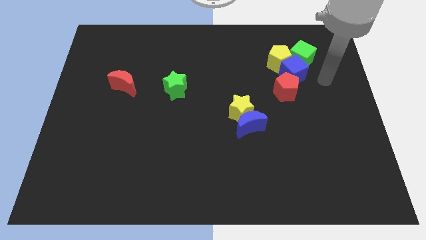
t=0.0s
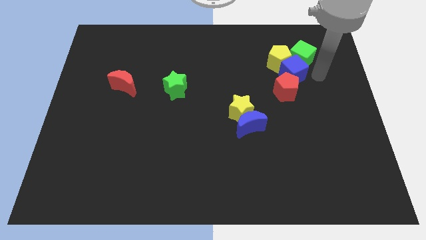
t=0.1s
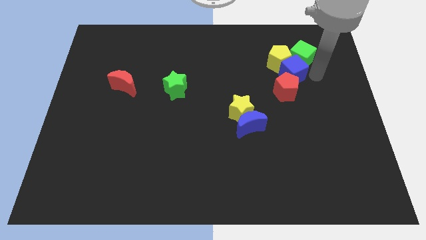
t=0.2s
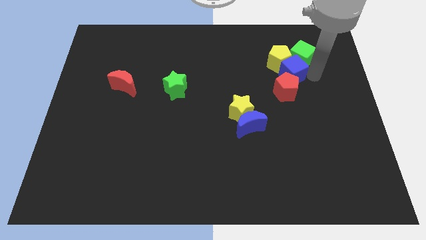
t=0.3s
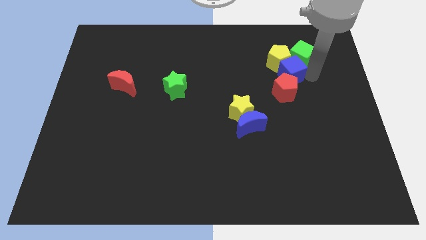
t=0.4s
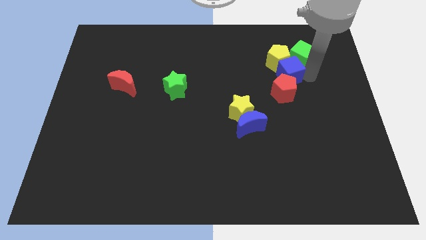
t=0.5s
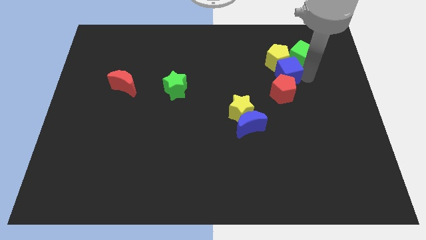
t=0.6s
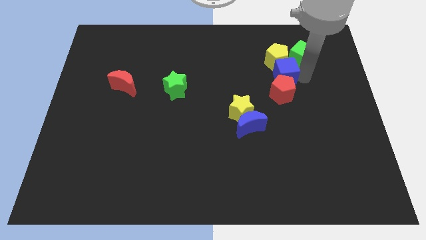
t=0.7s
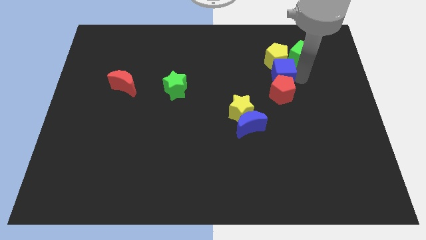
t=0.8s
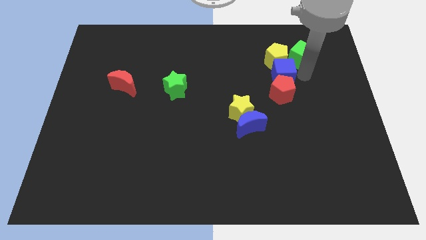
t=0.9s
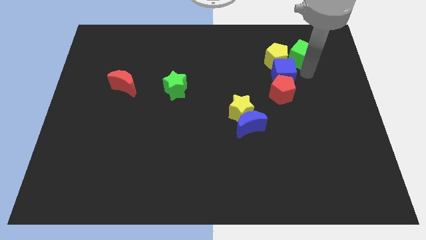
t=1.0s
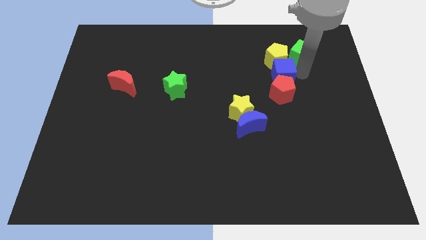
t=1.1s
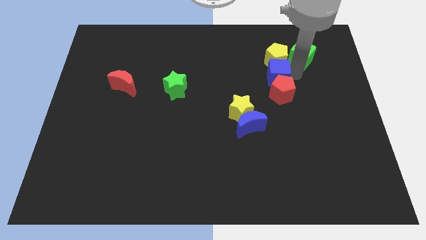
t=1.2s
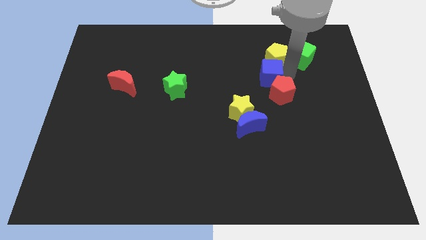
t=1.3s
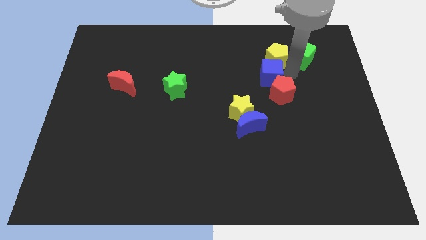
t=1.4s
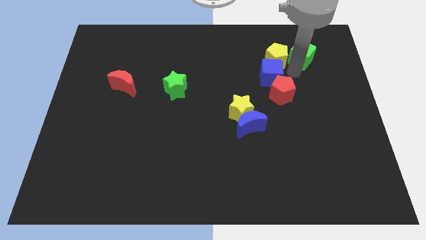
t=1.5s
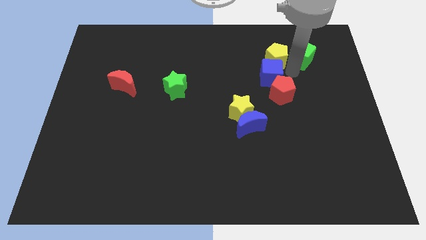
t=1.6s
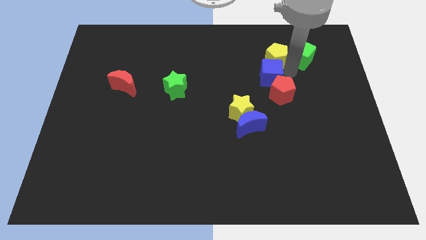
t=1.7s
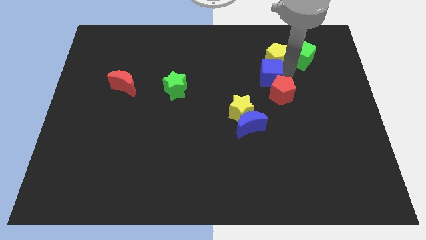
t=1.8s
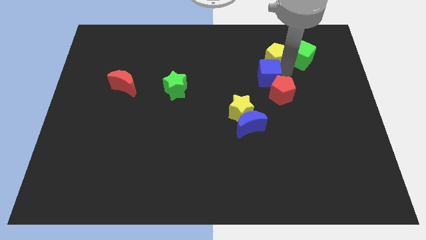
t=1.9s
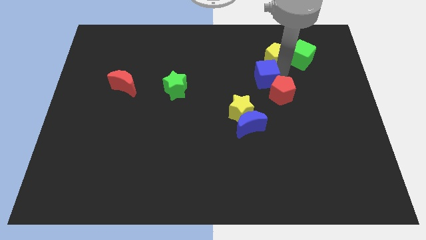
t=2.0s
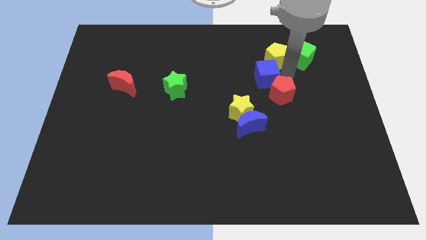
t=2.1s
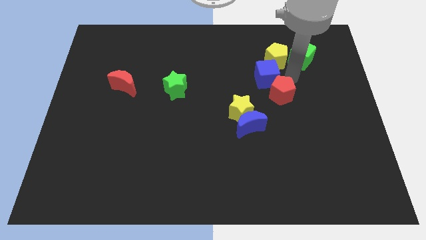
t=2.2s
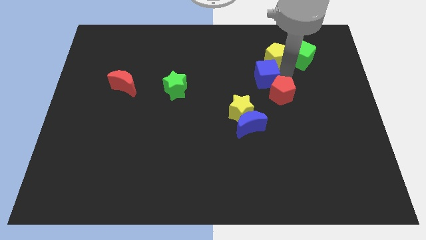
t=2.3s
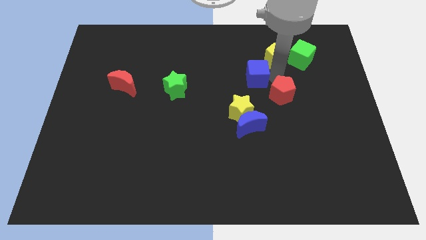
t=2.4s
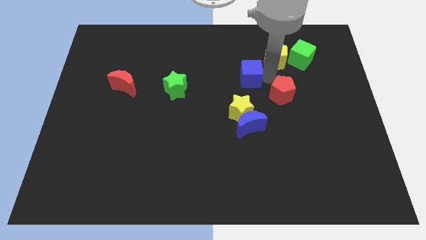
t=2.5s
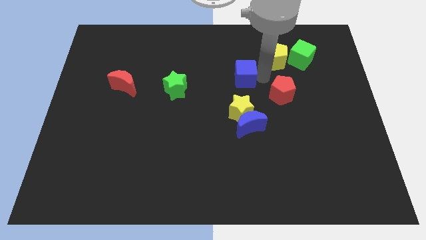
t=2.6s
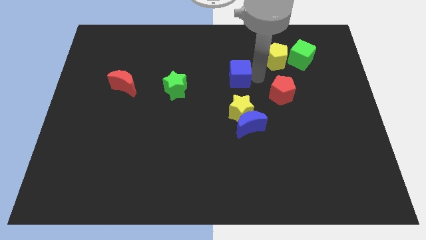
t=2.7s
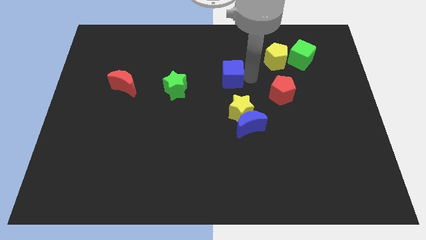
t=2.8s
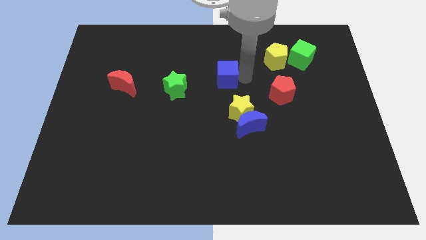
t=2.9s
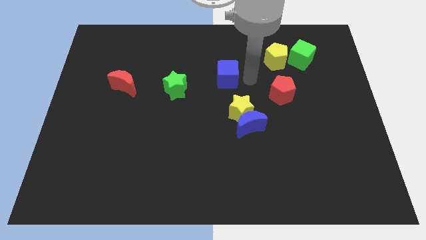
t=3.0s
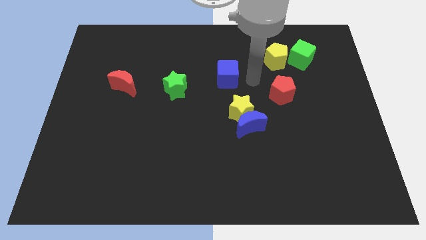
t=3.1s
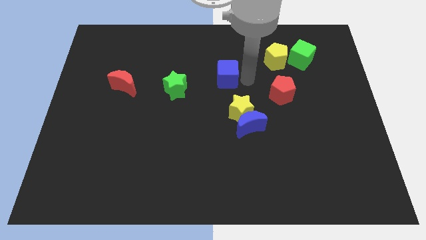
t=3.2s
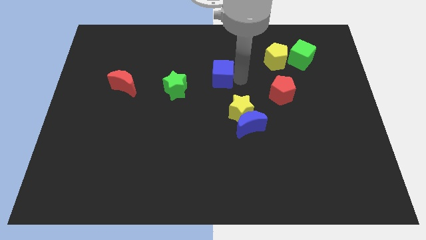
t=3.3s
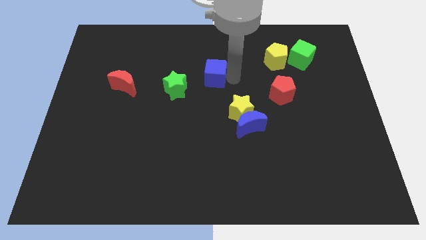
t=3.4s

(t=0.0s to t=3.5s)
move the blue cube left

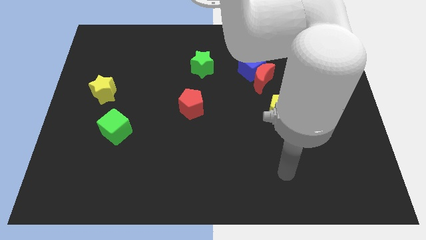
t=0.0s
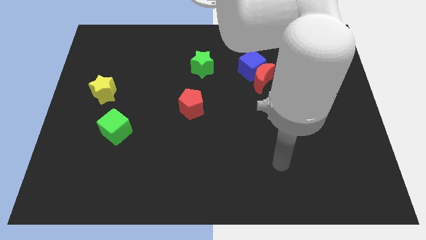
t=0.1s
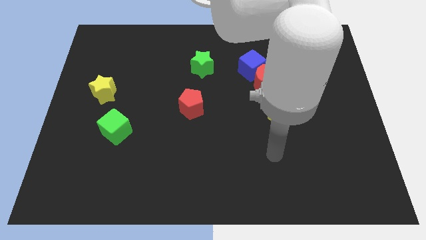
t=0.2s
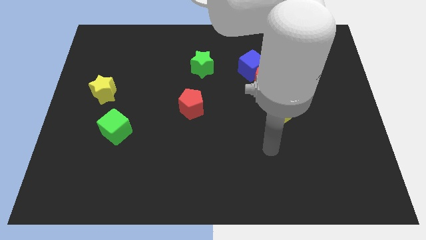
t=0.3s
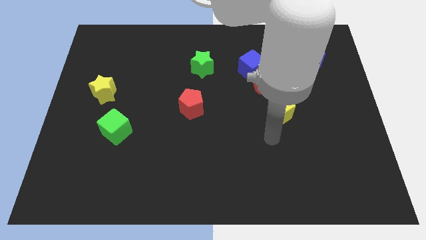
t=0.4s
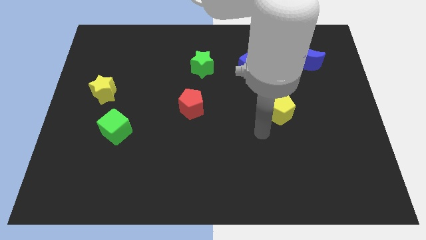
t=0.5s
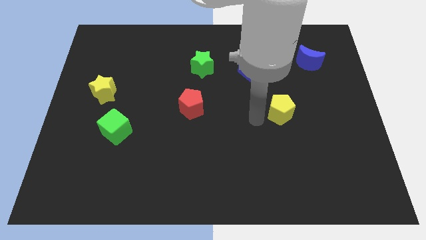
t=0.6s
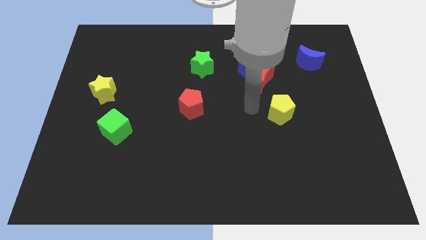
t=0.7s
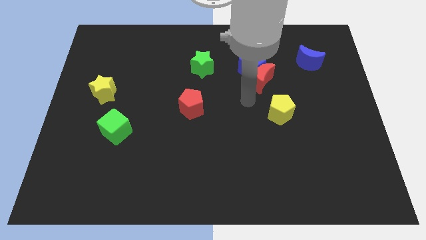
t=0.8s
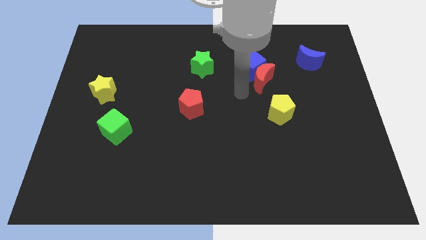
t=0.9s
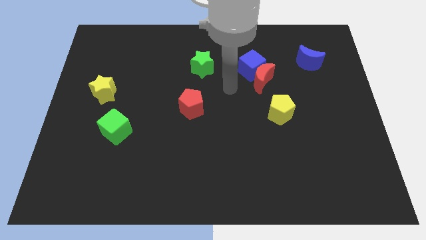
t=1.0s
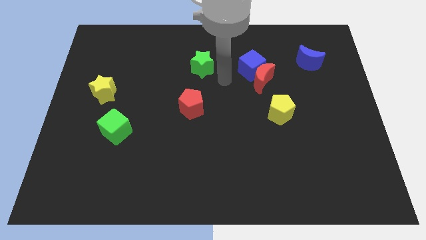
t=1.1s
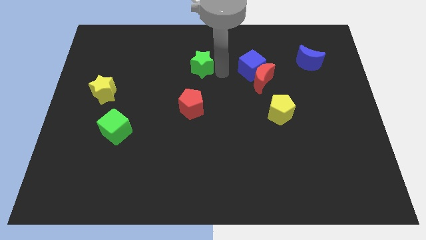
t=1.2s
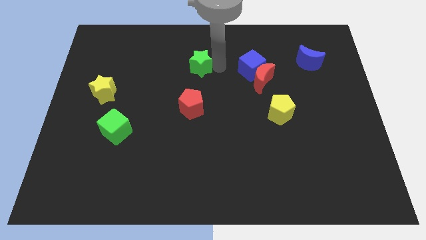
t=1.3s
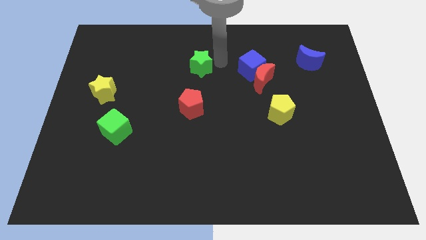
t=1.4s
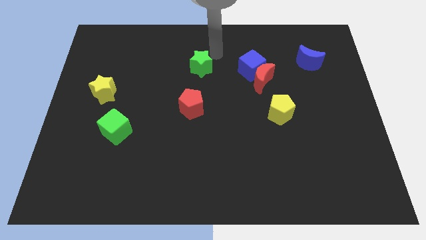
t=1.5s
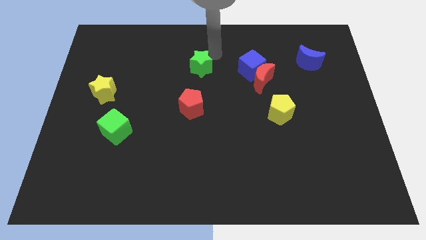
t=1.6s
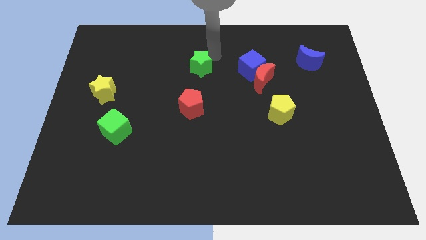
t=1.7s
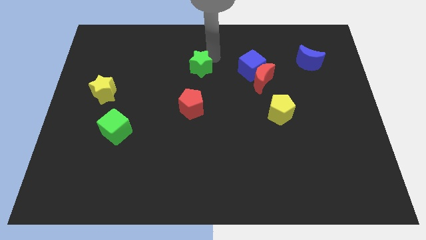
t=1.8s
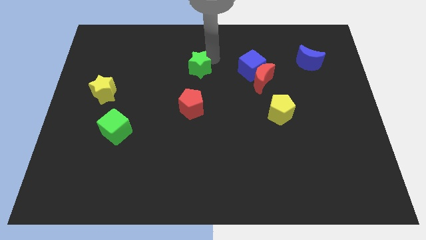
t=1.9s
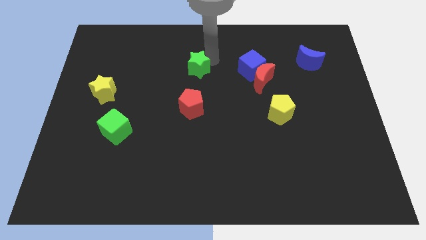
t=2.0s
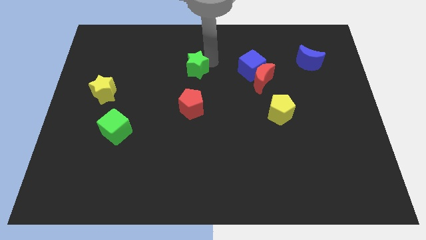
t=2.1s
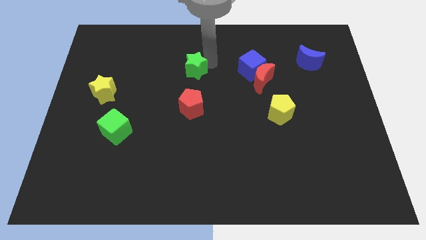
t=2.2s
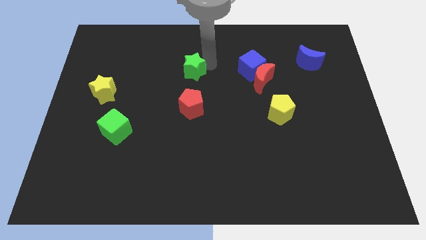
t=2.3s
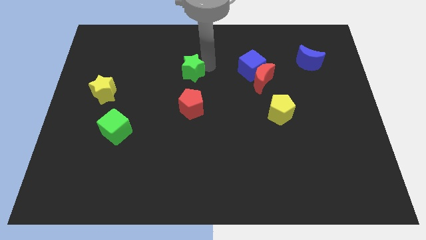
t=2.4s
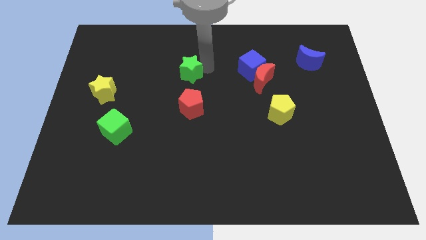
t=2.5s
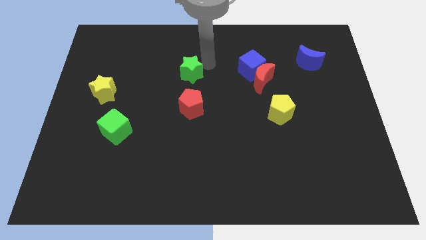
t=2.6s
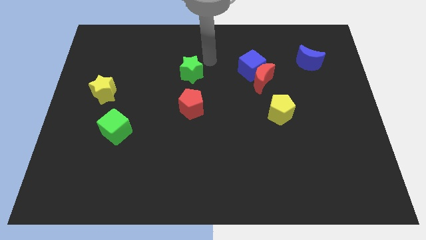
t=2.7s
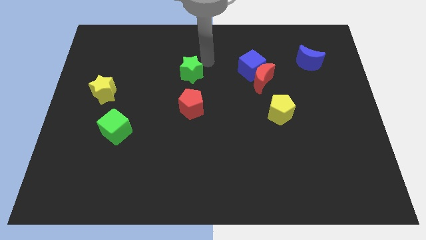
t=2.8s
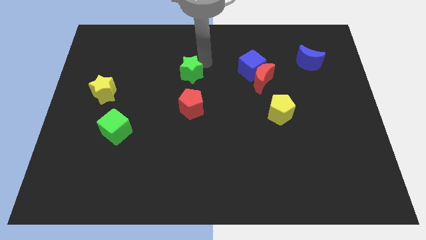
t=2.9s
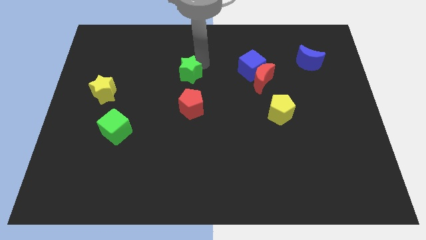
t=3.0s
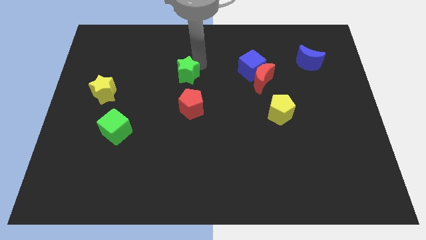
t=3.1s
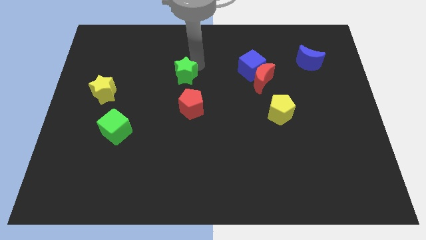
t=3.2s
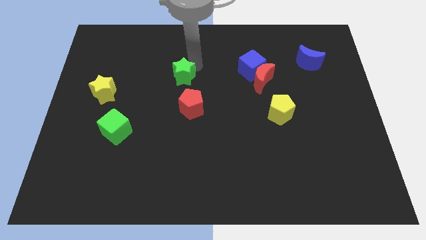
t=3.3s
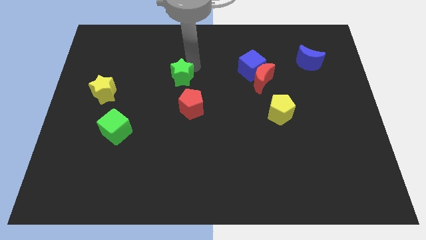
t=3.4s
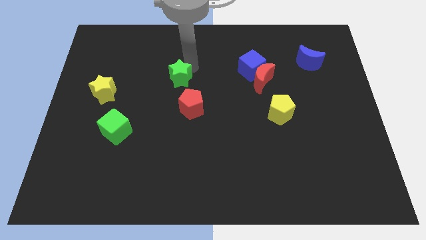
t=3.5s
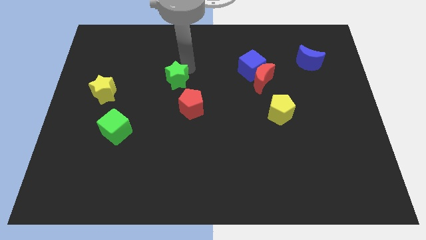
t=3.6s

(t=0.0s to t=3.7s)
move the green star a little bit down and left

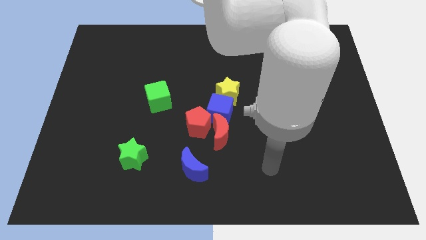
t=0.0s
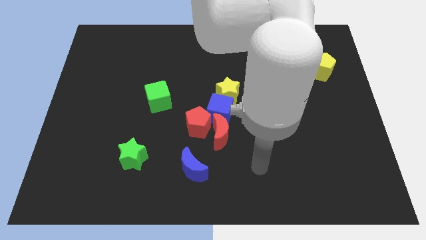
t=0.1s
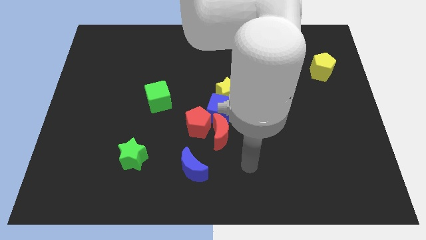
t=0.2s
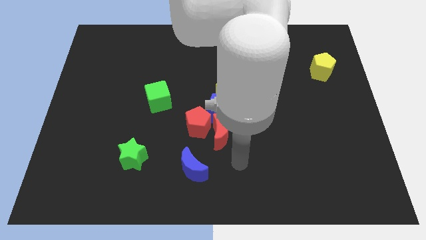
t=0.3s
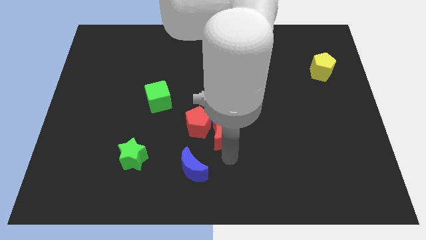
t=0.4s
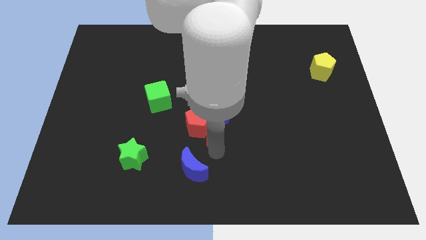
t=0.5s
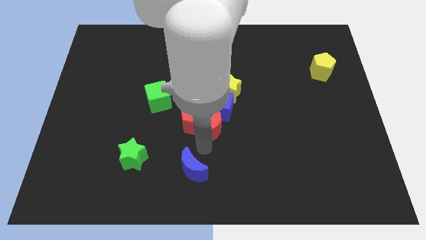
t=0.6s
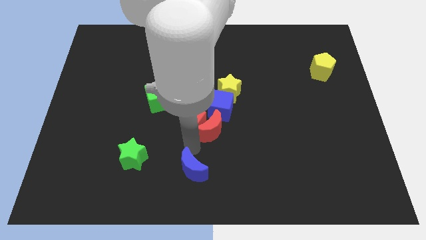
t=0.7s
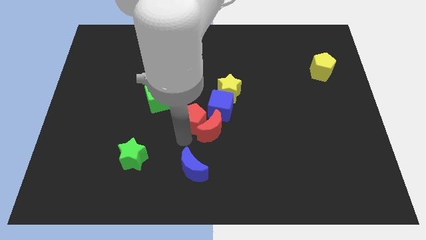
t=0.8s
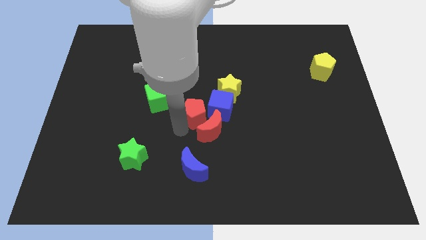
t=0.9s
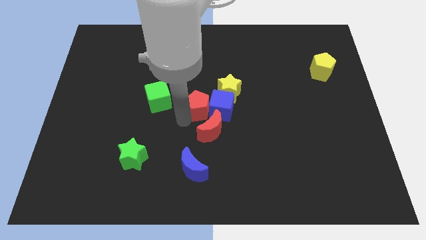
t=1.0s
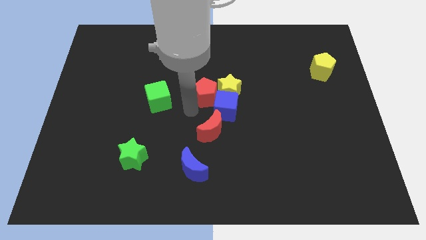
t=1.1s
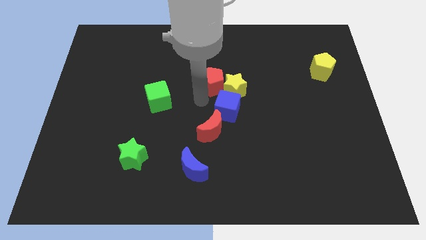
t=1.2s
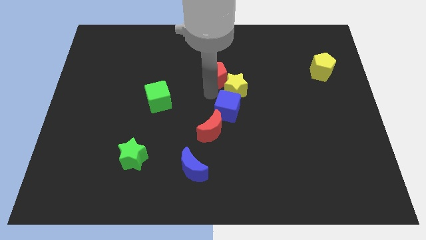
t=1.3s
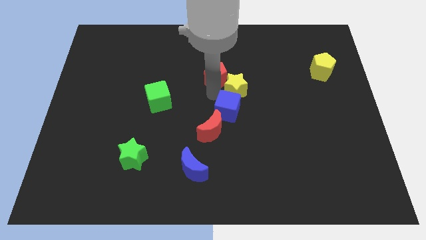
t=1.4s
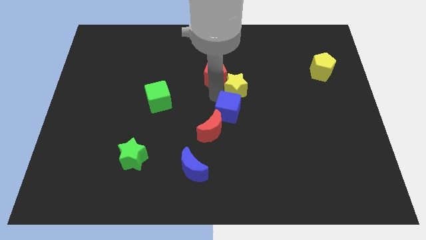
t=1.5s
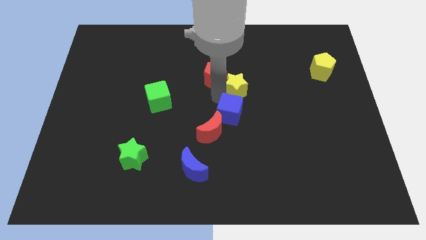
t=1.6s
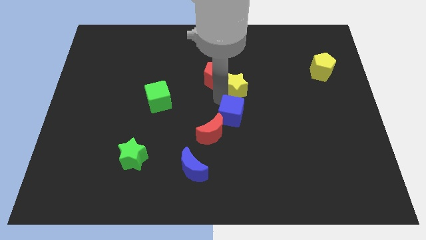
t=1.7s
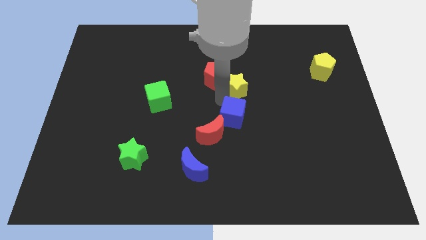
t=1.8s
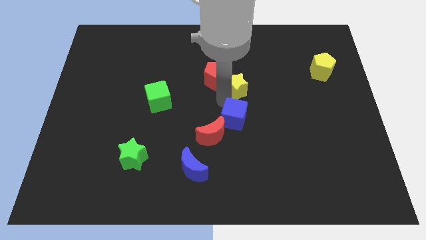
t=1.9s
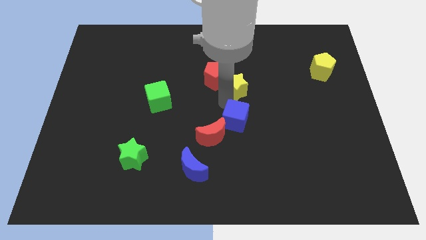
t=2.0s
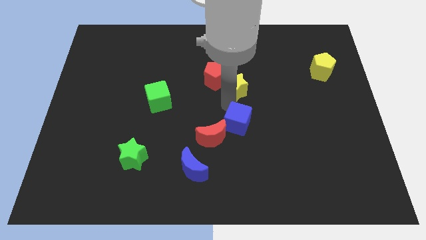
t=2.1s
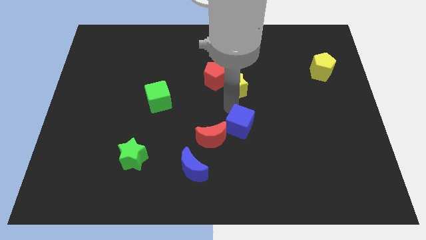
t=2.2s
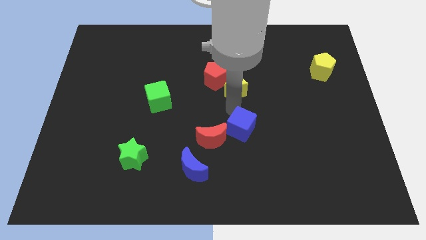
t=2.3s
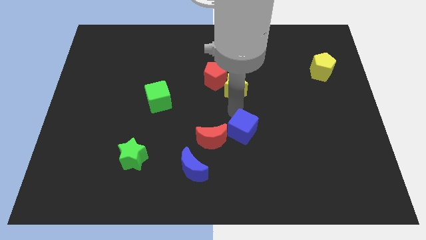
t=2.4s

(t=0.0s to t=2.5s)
push the blue cube diagonally downwards and to the right a bit
